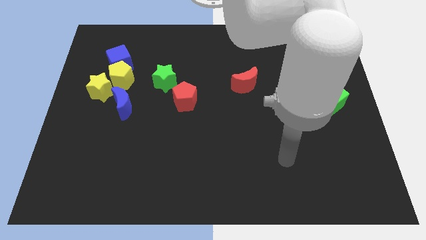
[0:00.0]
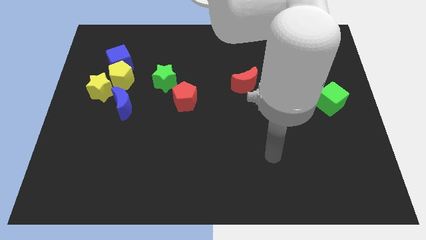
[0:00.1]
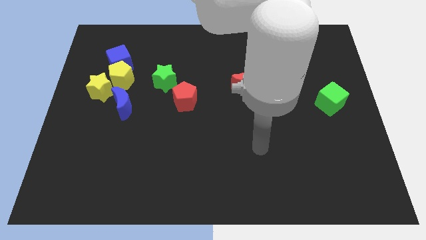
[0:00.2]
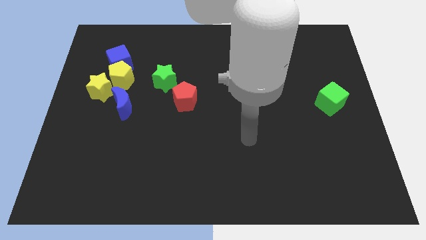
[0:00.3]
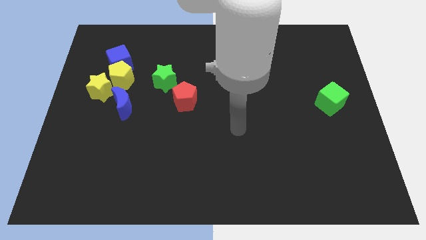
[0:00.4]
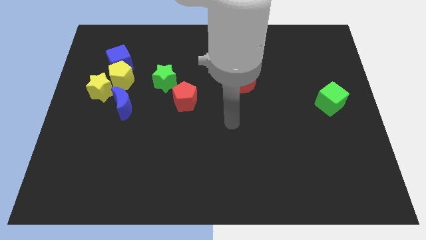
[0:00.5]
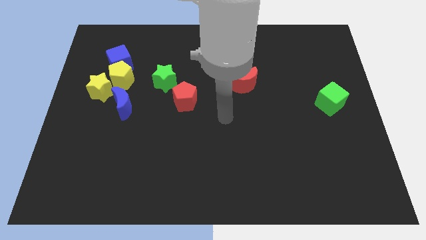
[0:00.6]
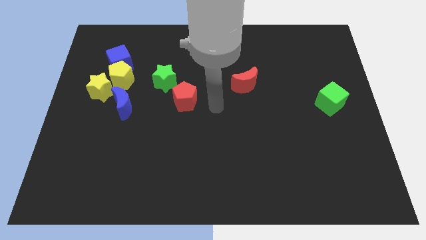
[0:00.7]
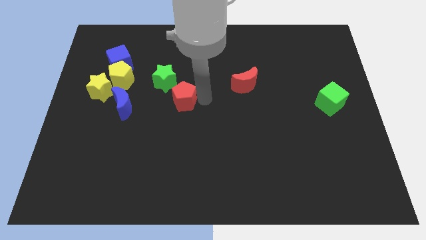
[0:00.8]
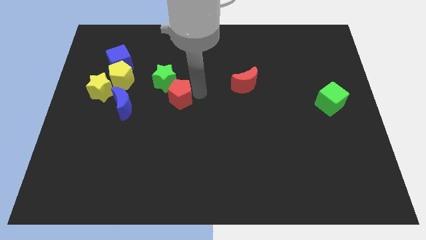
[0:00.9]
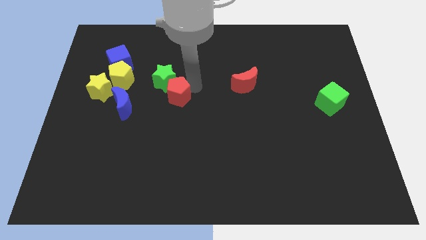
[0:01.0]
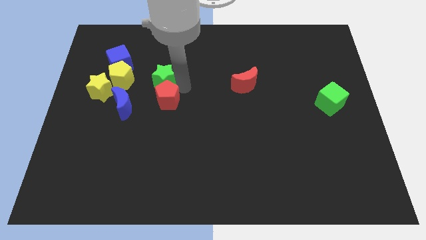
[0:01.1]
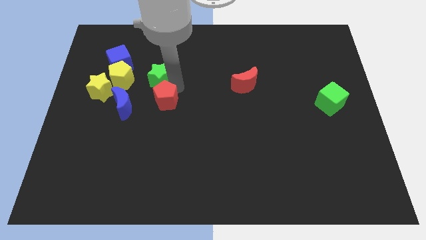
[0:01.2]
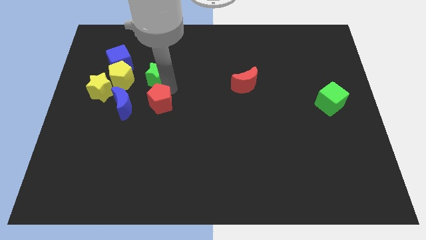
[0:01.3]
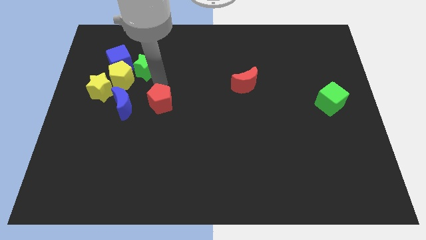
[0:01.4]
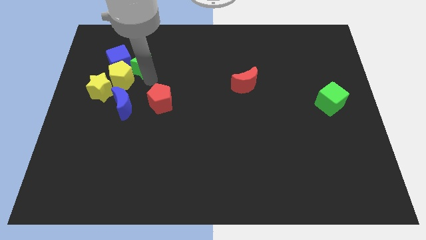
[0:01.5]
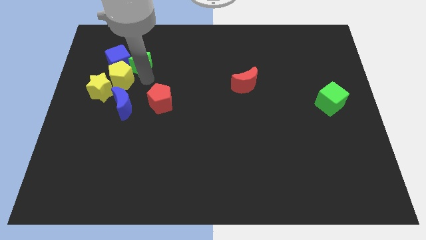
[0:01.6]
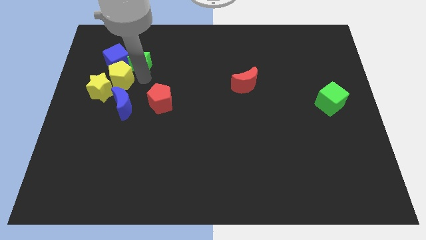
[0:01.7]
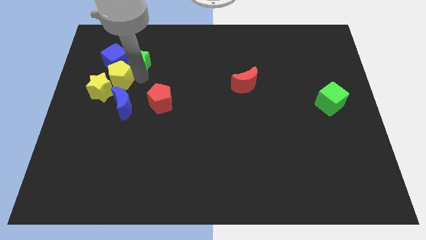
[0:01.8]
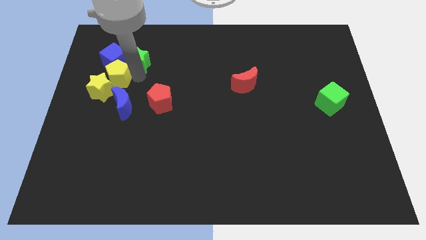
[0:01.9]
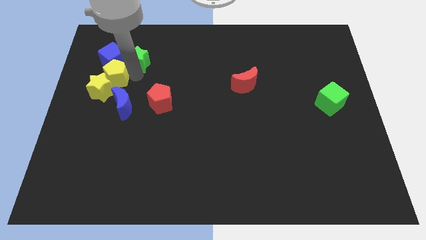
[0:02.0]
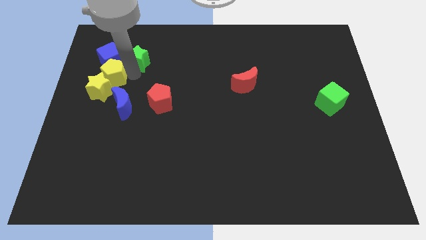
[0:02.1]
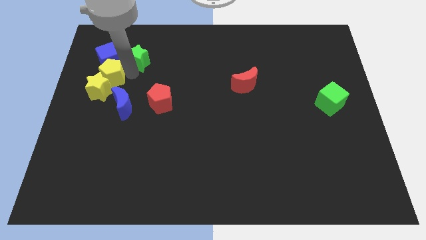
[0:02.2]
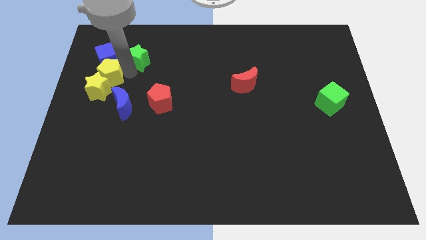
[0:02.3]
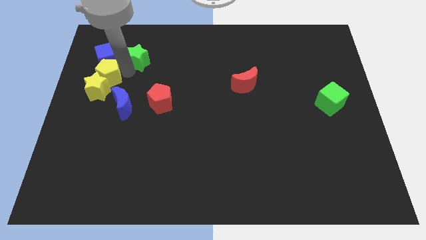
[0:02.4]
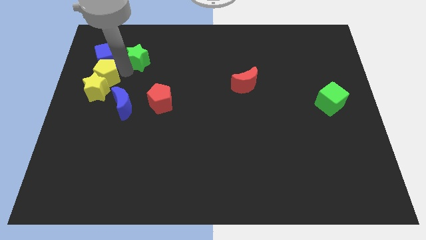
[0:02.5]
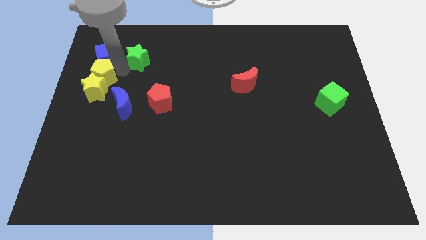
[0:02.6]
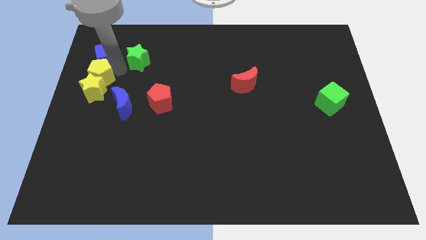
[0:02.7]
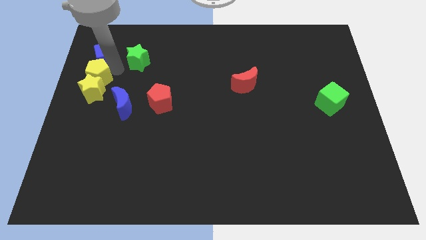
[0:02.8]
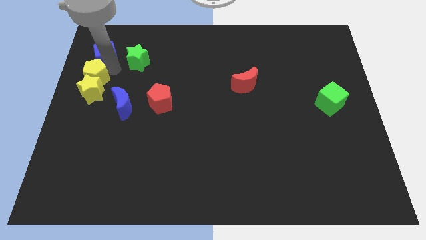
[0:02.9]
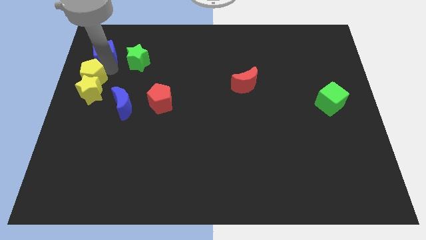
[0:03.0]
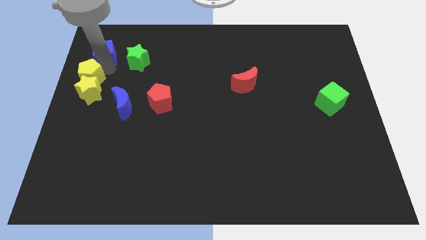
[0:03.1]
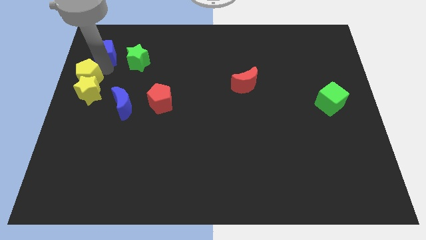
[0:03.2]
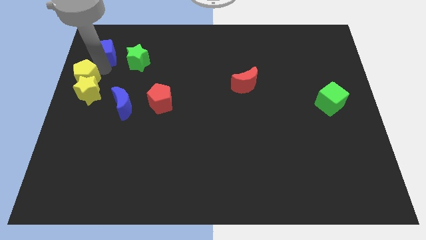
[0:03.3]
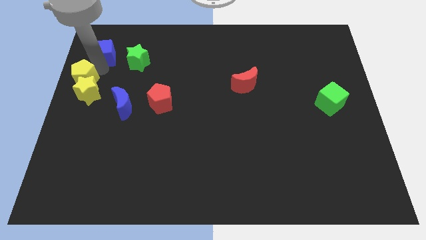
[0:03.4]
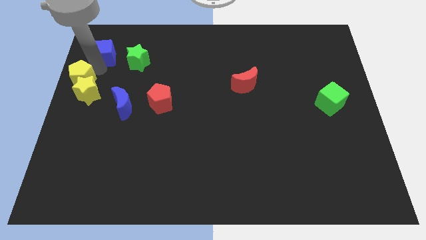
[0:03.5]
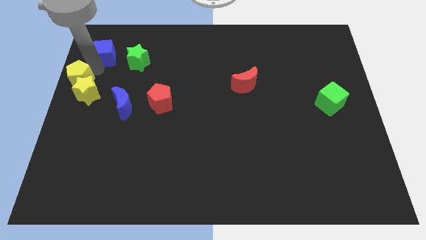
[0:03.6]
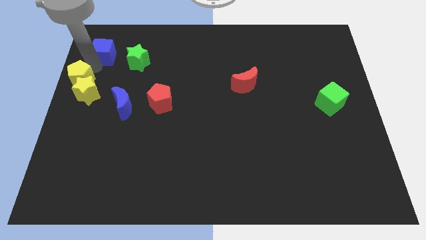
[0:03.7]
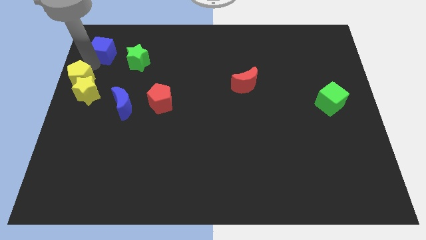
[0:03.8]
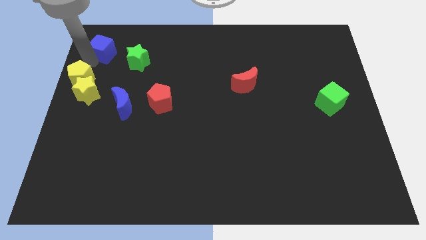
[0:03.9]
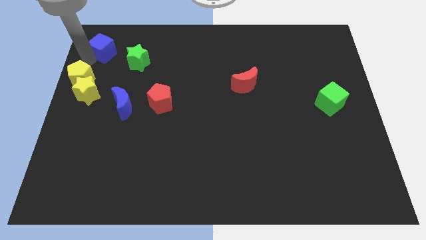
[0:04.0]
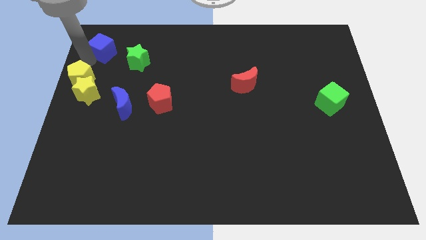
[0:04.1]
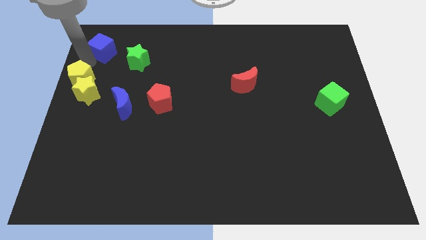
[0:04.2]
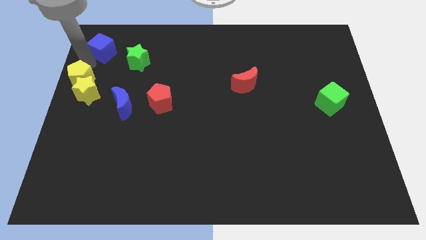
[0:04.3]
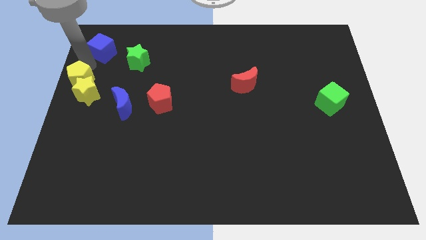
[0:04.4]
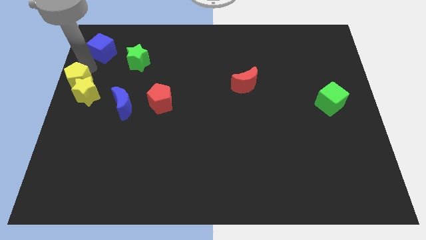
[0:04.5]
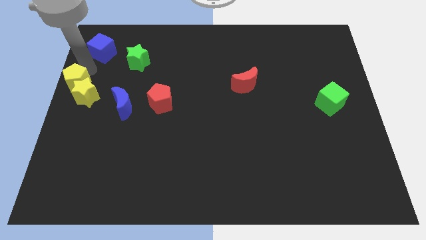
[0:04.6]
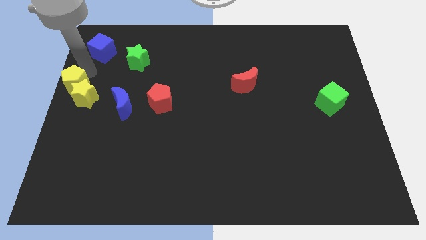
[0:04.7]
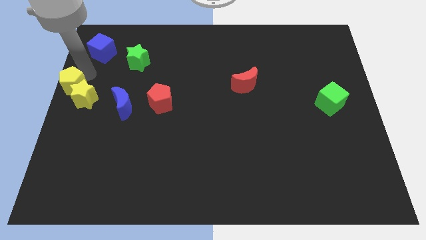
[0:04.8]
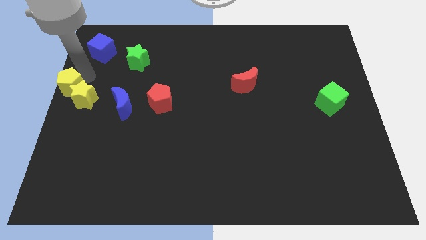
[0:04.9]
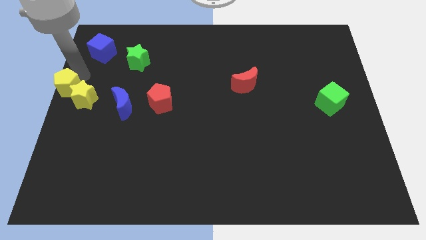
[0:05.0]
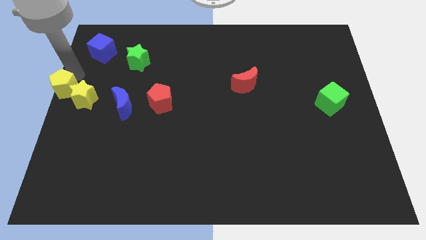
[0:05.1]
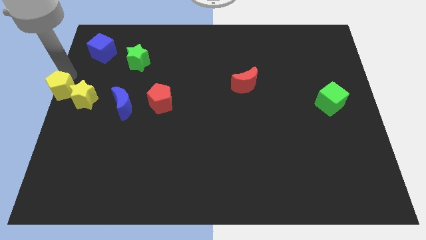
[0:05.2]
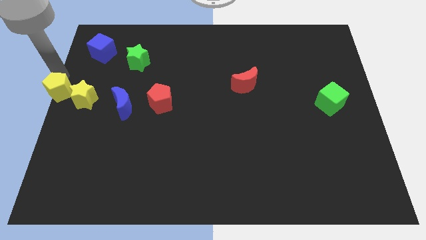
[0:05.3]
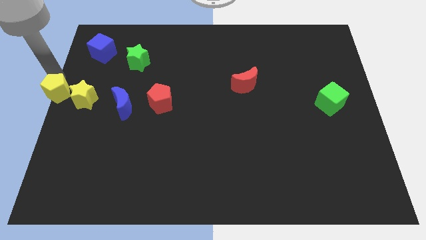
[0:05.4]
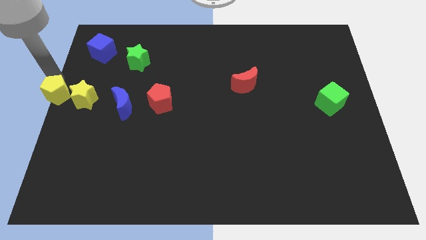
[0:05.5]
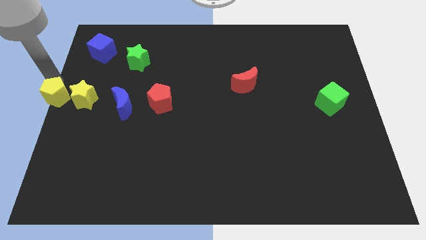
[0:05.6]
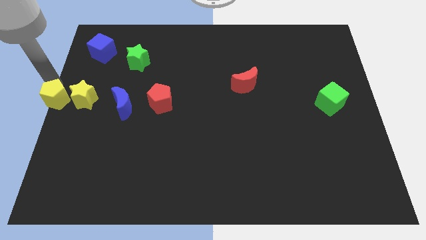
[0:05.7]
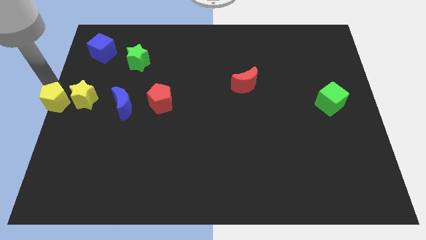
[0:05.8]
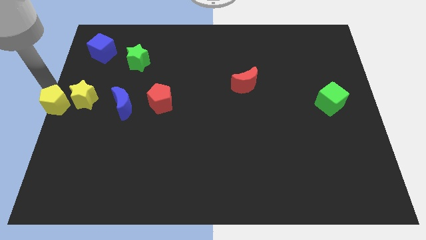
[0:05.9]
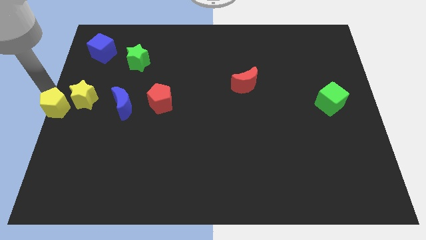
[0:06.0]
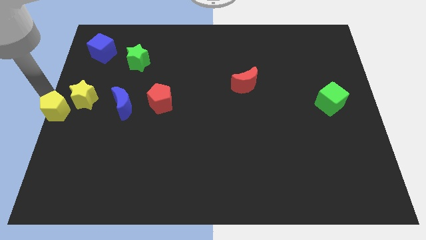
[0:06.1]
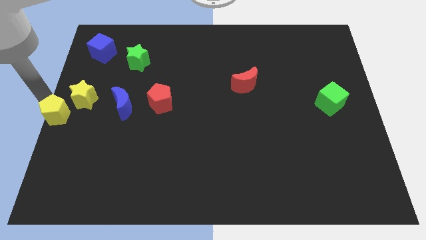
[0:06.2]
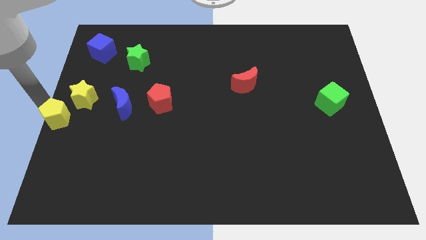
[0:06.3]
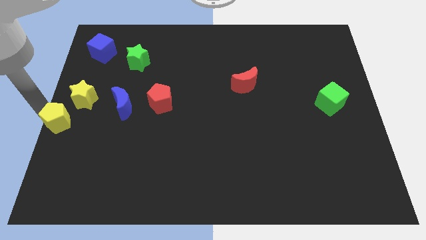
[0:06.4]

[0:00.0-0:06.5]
move the yellow pentagon to the bottom side of the yellow star

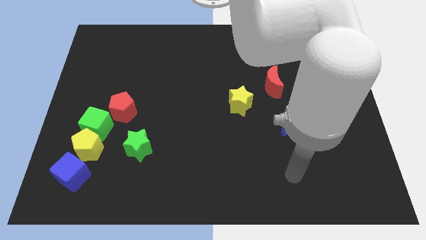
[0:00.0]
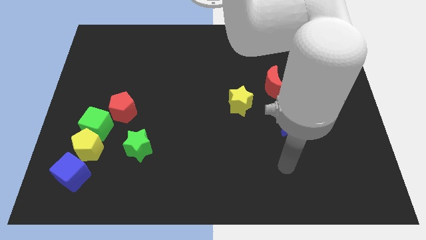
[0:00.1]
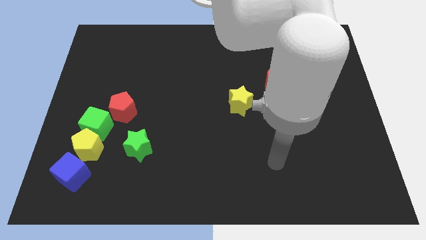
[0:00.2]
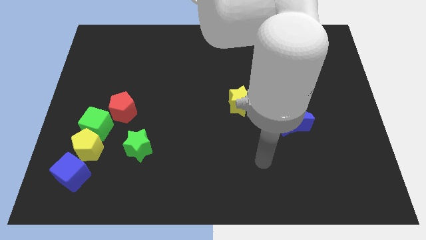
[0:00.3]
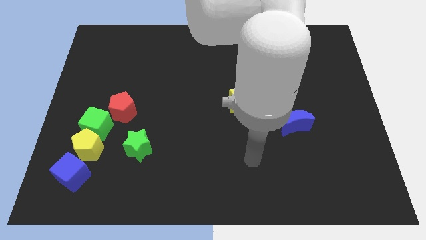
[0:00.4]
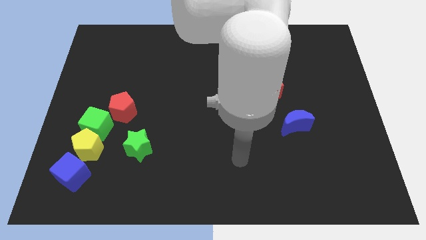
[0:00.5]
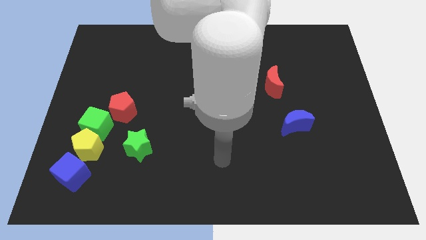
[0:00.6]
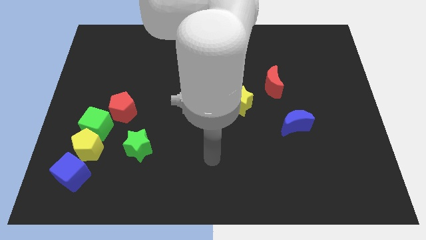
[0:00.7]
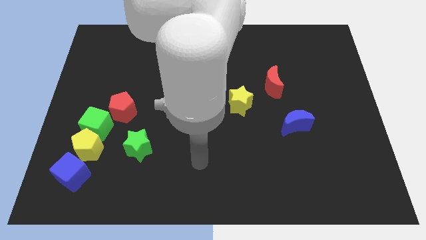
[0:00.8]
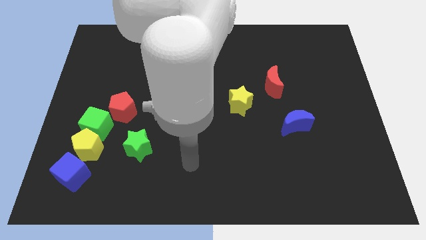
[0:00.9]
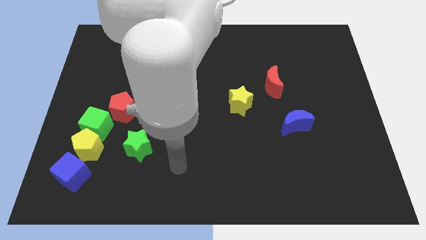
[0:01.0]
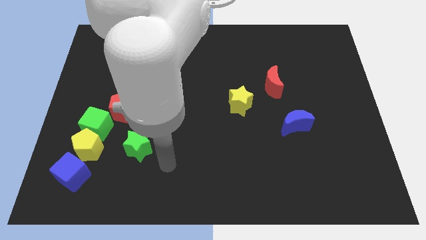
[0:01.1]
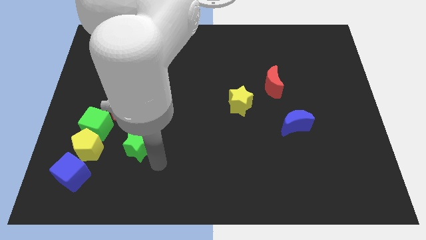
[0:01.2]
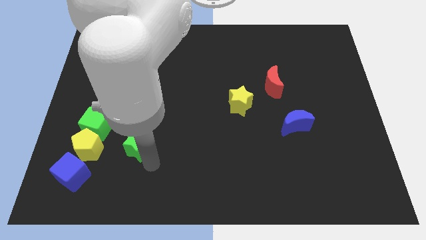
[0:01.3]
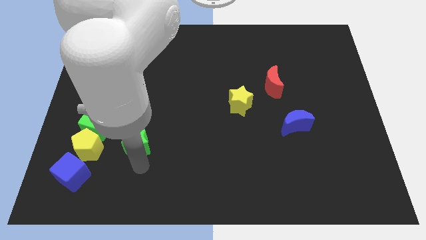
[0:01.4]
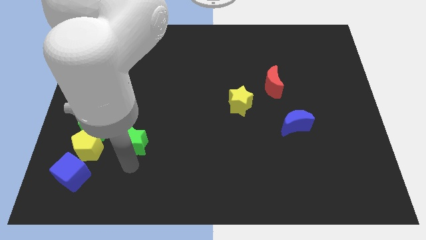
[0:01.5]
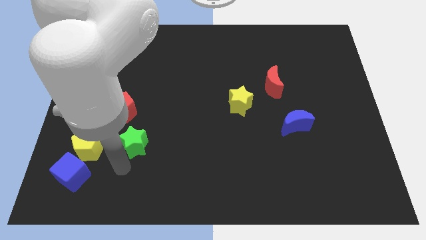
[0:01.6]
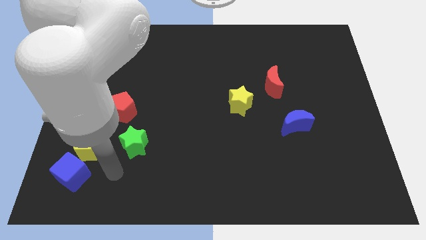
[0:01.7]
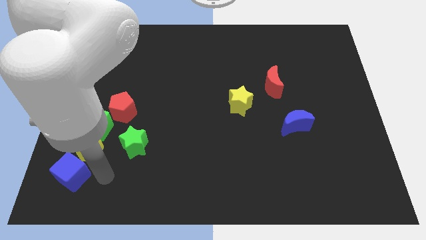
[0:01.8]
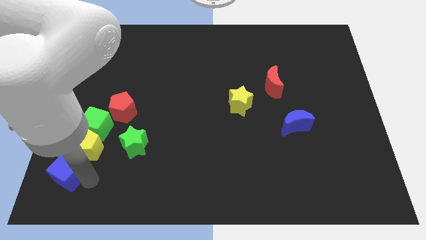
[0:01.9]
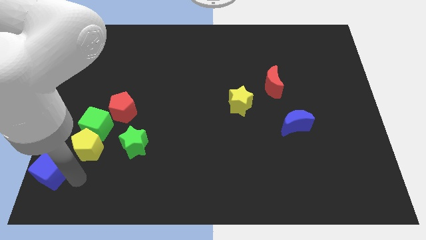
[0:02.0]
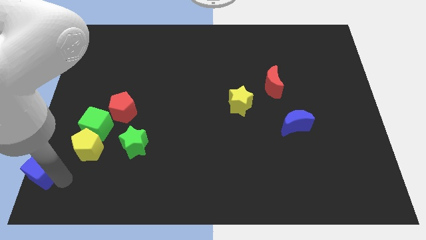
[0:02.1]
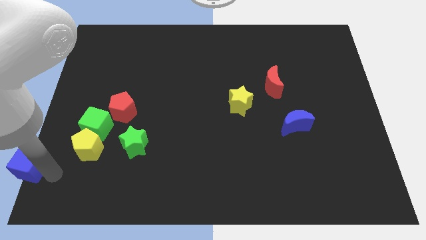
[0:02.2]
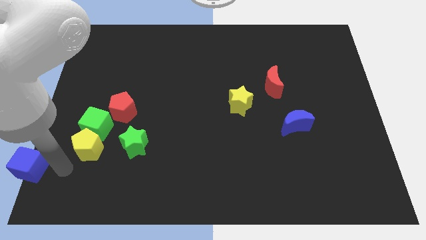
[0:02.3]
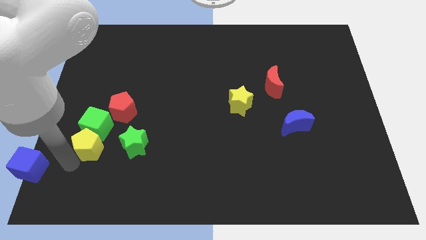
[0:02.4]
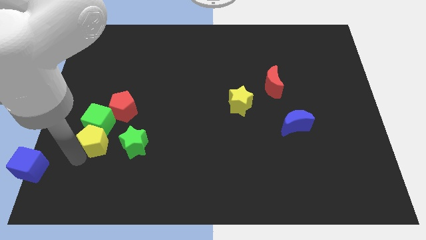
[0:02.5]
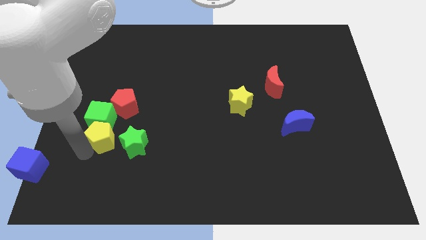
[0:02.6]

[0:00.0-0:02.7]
put the yellow pentagon to the top left of the green star
